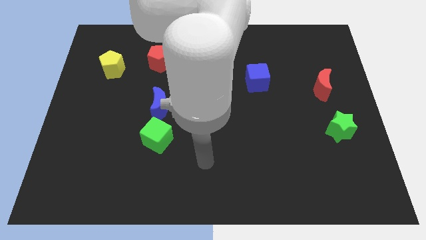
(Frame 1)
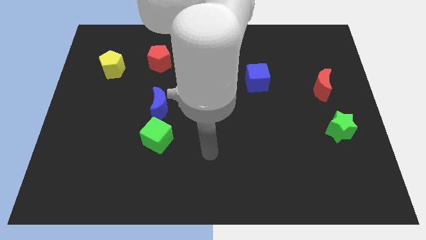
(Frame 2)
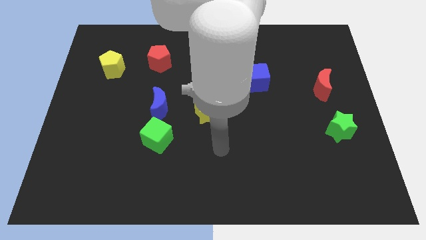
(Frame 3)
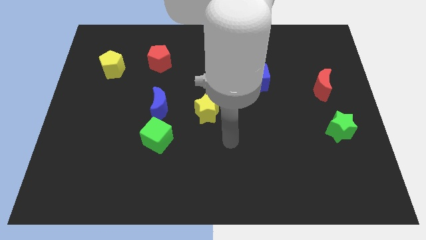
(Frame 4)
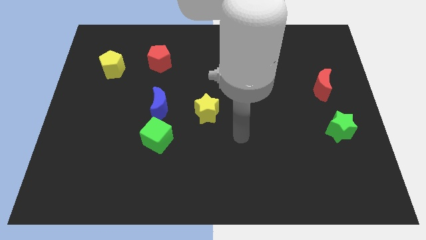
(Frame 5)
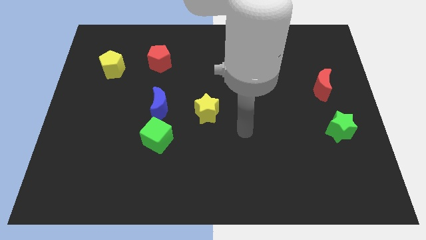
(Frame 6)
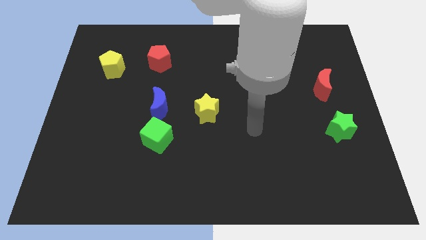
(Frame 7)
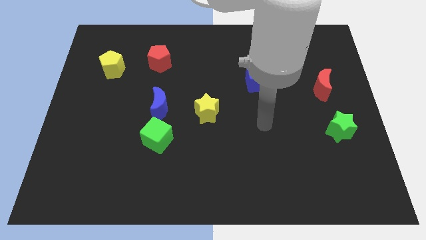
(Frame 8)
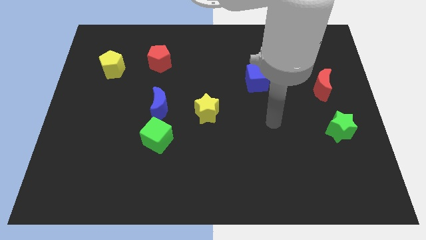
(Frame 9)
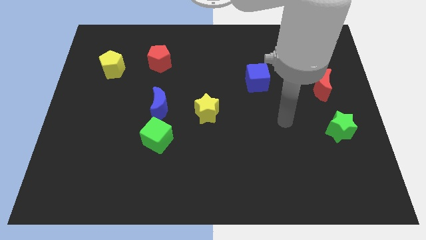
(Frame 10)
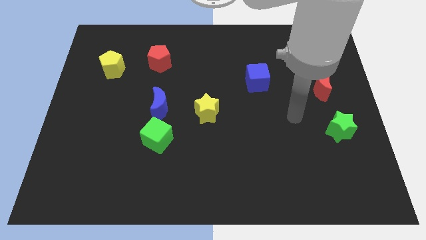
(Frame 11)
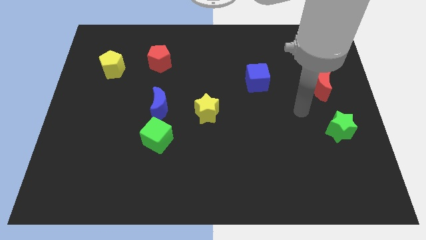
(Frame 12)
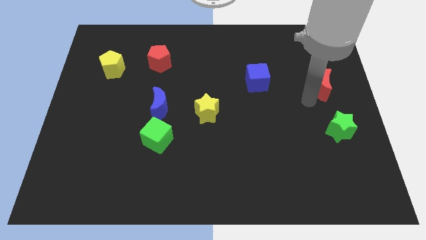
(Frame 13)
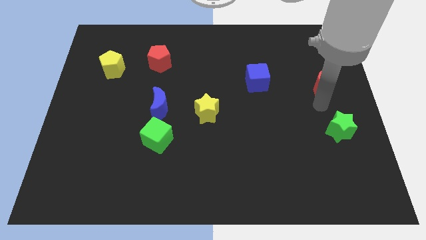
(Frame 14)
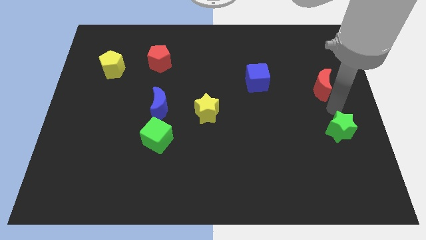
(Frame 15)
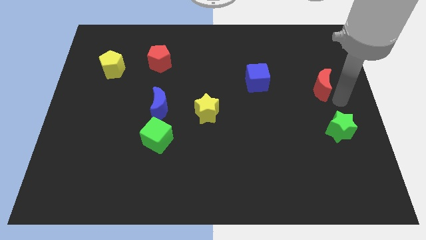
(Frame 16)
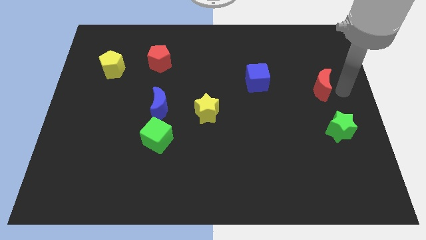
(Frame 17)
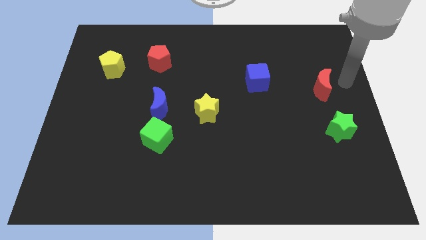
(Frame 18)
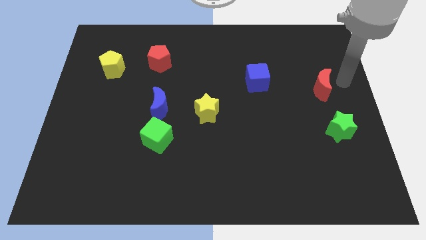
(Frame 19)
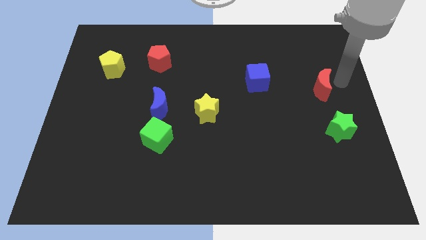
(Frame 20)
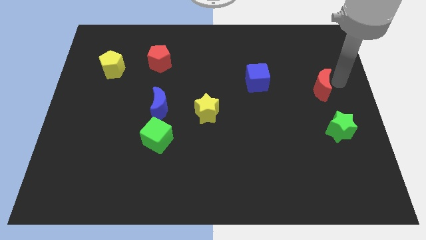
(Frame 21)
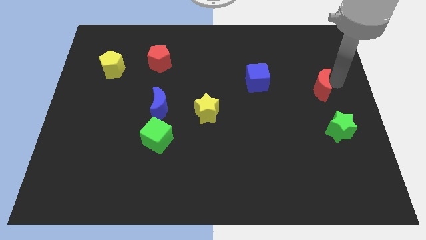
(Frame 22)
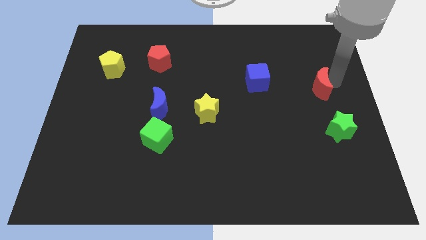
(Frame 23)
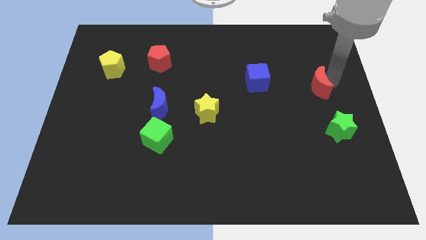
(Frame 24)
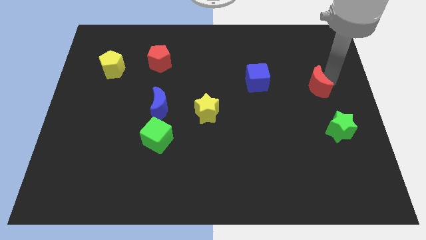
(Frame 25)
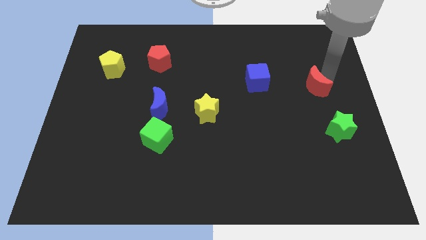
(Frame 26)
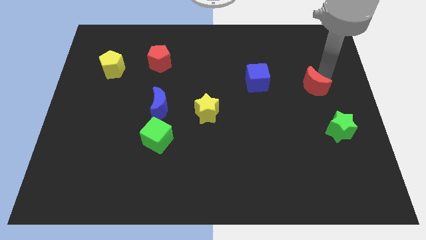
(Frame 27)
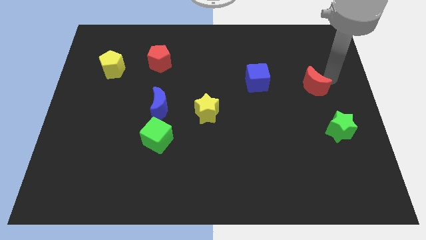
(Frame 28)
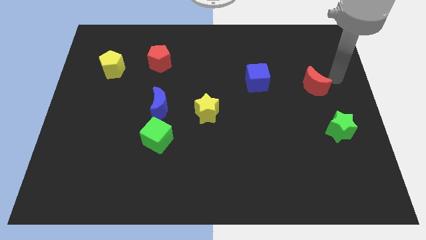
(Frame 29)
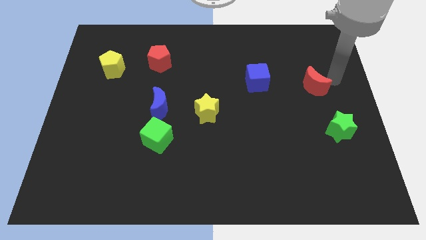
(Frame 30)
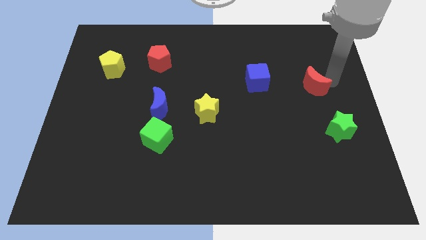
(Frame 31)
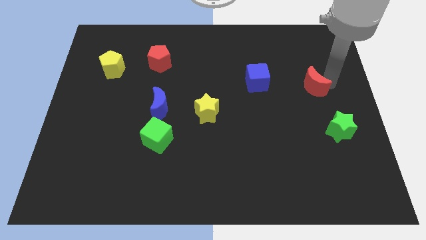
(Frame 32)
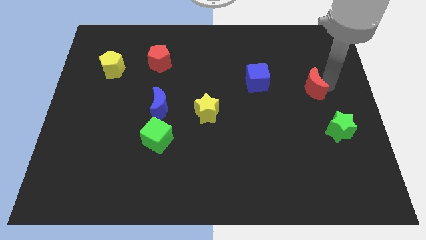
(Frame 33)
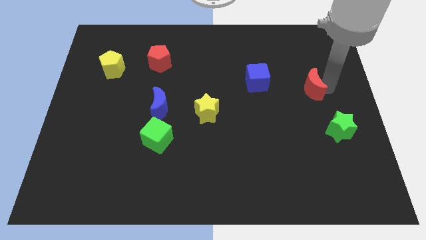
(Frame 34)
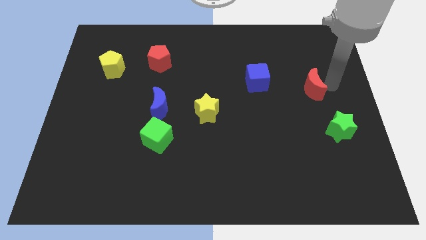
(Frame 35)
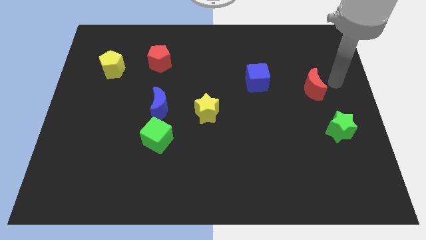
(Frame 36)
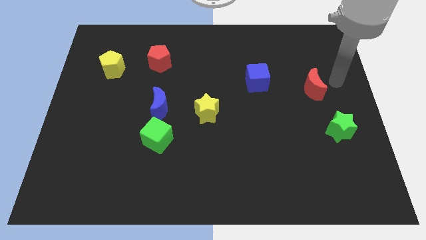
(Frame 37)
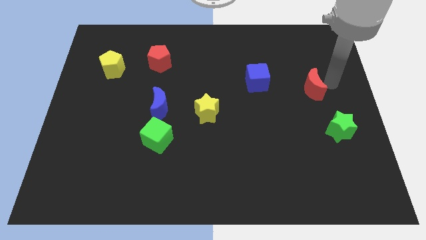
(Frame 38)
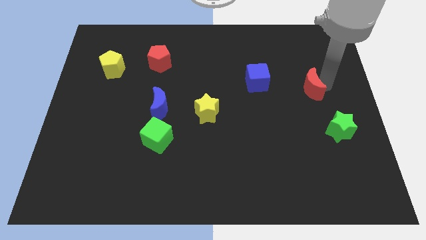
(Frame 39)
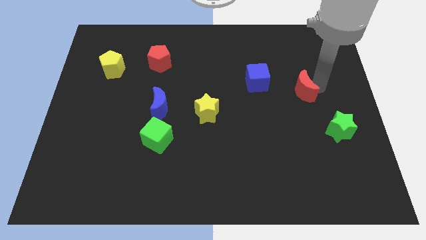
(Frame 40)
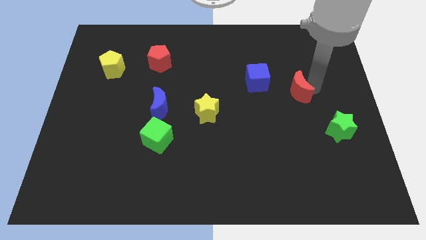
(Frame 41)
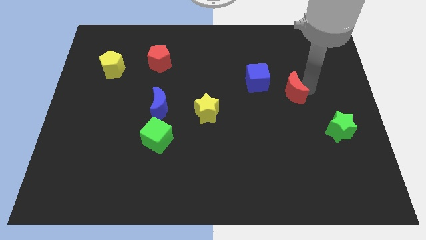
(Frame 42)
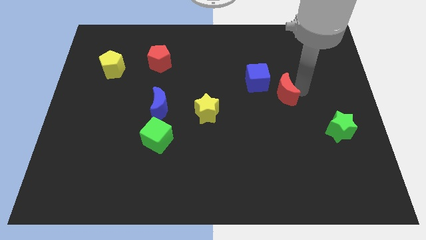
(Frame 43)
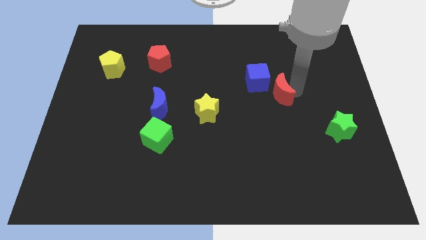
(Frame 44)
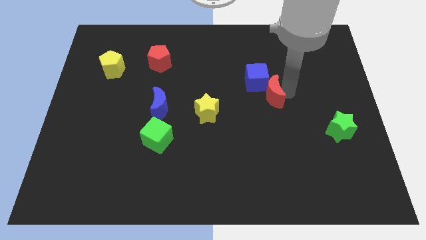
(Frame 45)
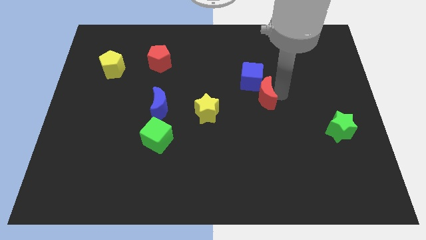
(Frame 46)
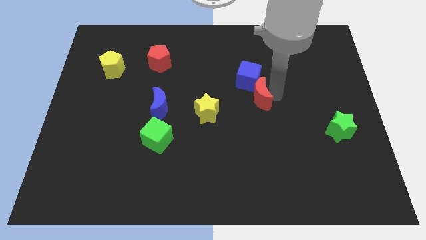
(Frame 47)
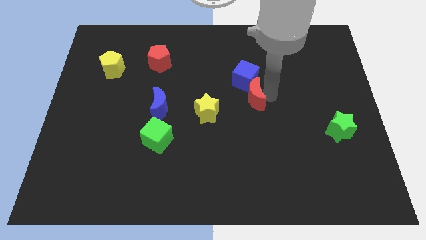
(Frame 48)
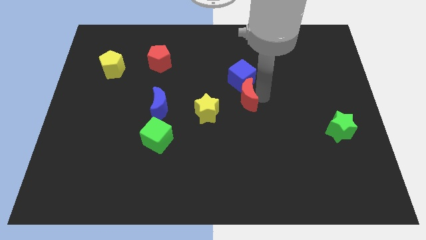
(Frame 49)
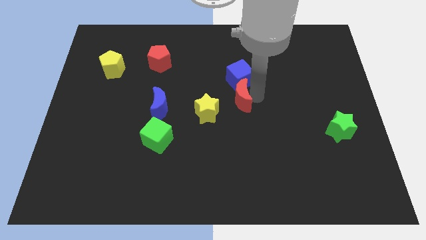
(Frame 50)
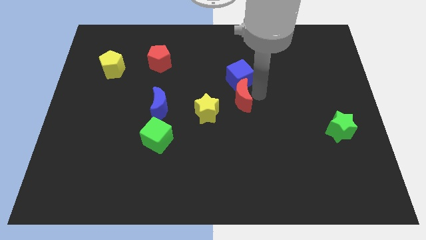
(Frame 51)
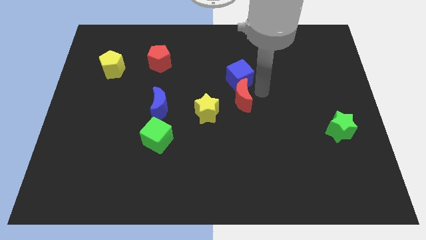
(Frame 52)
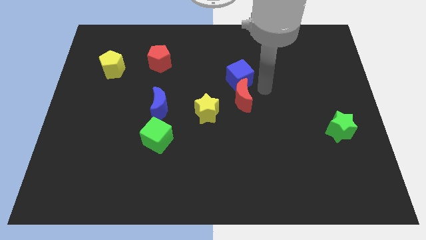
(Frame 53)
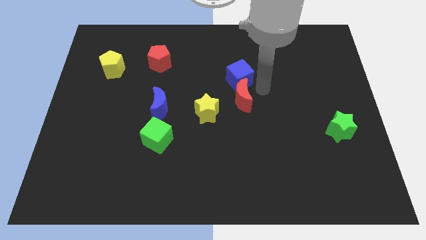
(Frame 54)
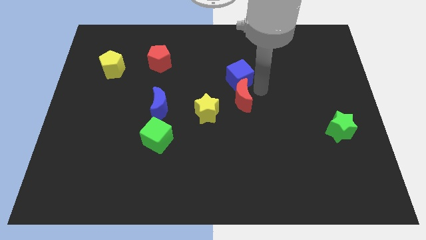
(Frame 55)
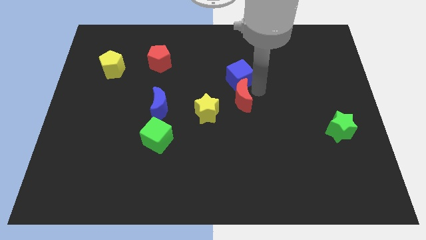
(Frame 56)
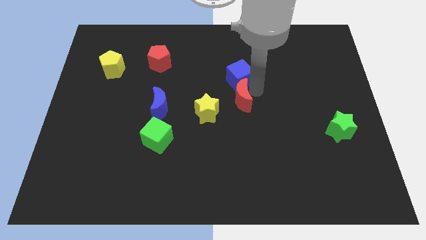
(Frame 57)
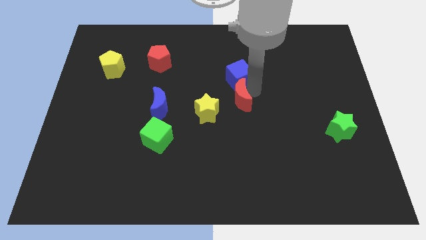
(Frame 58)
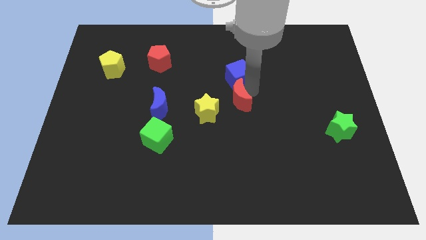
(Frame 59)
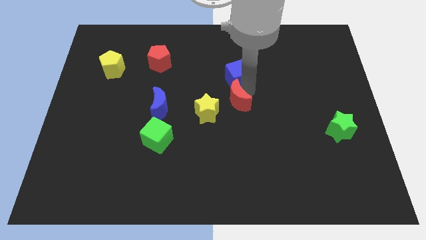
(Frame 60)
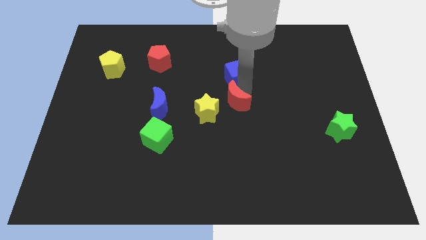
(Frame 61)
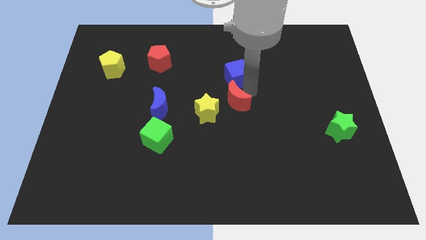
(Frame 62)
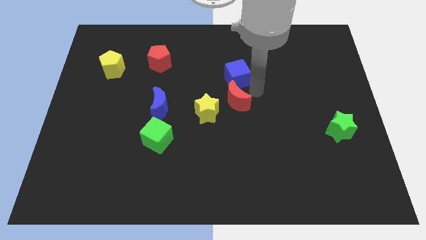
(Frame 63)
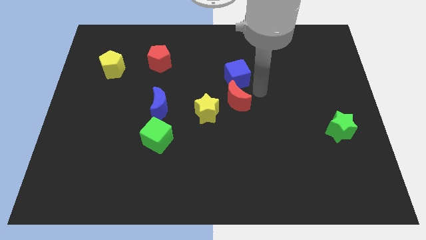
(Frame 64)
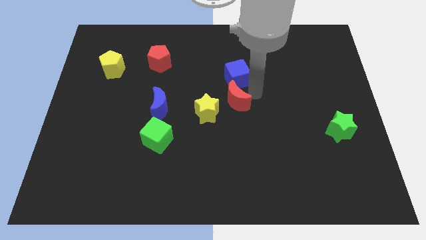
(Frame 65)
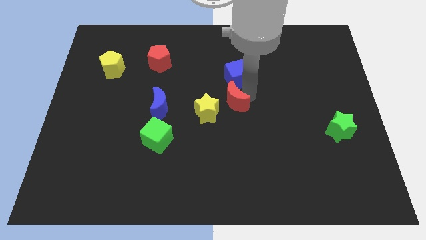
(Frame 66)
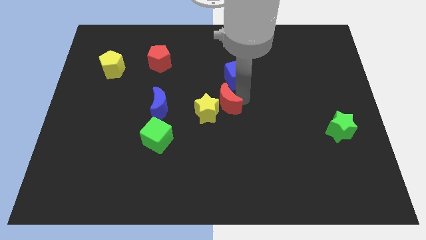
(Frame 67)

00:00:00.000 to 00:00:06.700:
push the red moon close to the yellow star

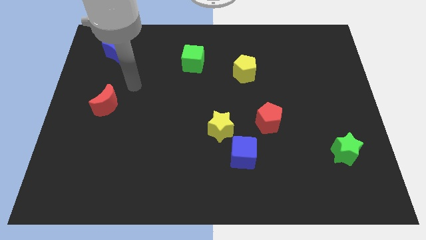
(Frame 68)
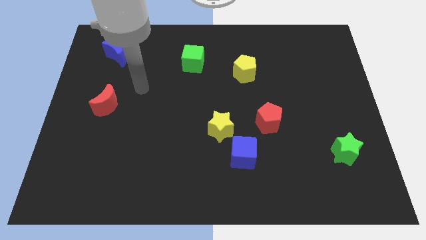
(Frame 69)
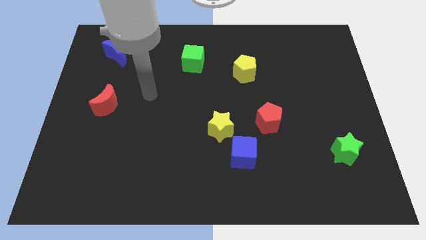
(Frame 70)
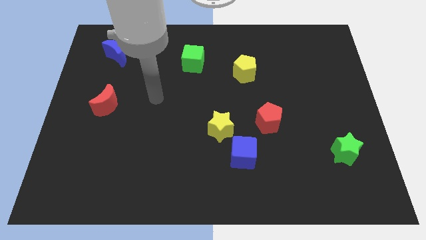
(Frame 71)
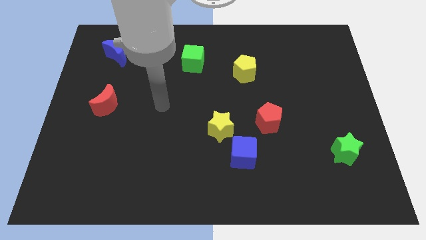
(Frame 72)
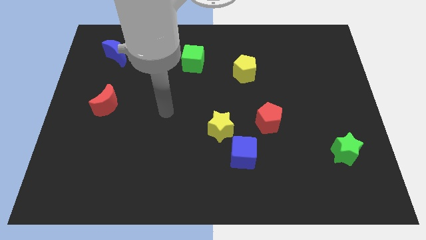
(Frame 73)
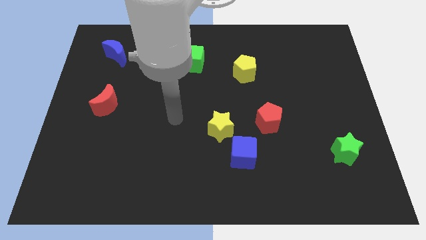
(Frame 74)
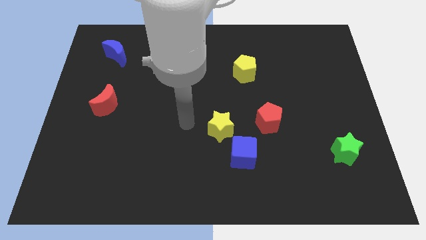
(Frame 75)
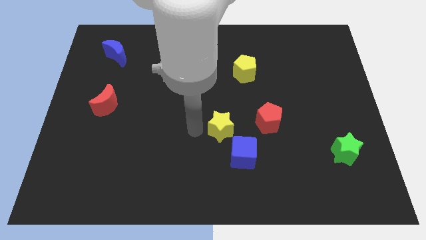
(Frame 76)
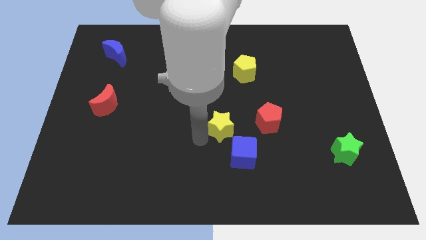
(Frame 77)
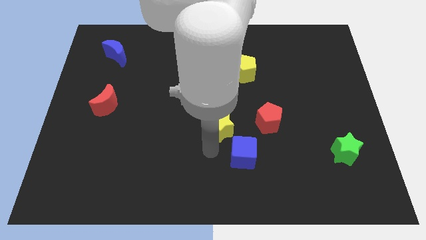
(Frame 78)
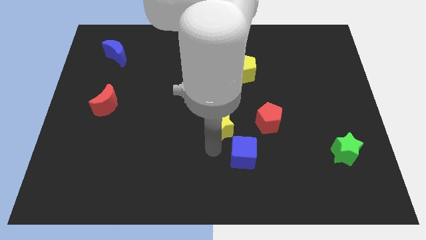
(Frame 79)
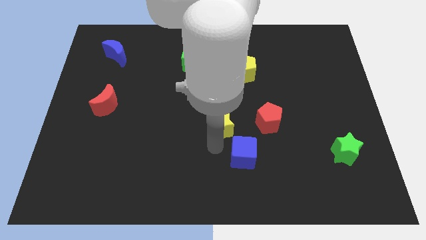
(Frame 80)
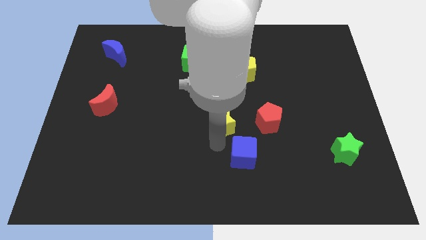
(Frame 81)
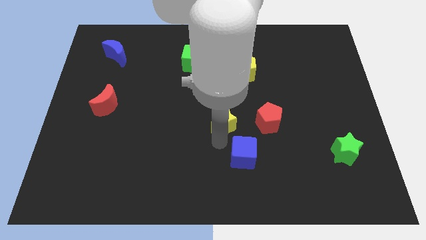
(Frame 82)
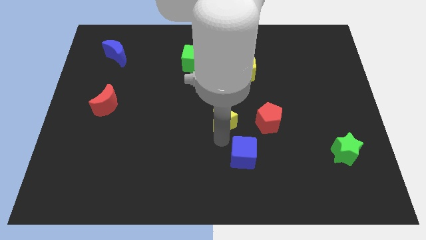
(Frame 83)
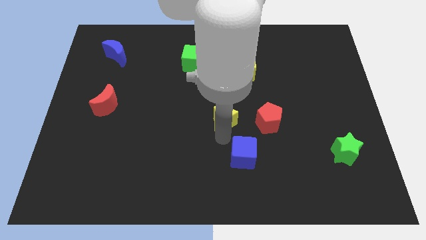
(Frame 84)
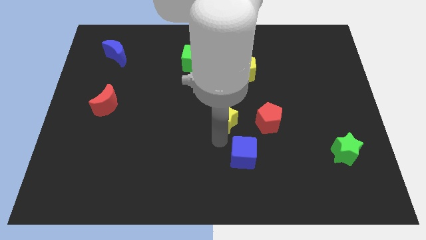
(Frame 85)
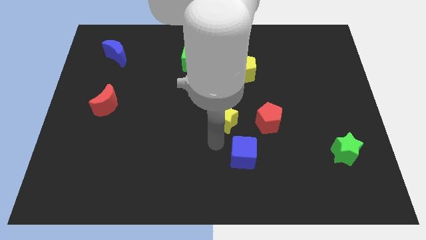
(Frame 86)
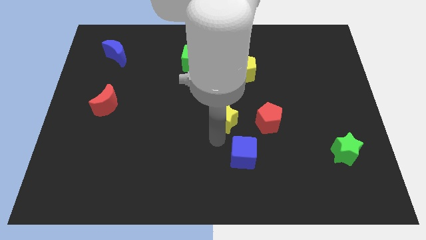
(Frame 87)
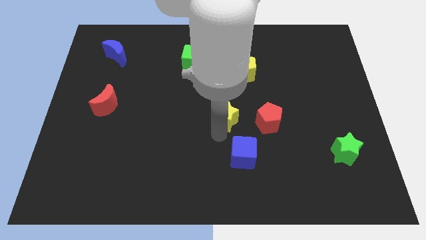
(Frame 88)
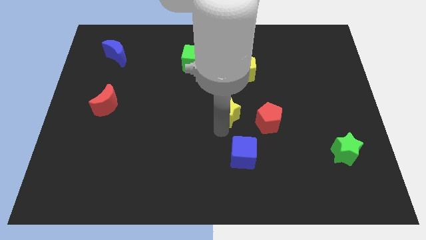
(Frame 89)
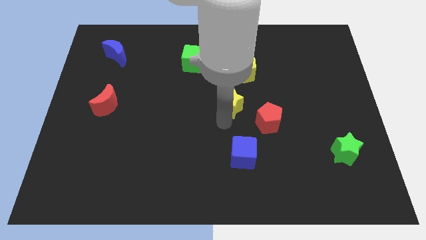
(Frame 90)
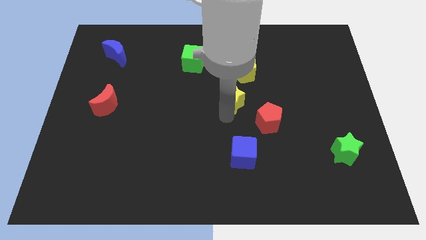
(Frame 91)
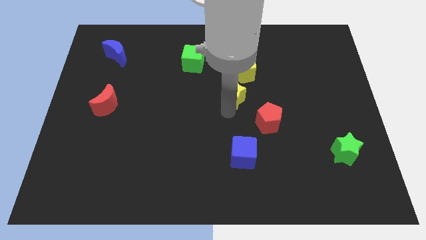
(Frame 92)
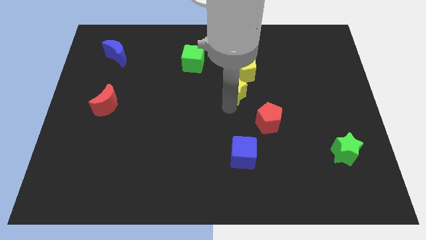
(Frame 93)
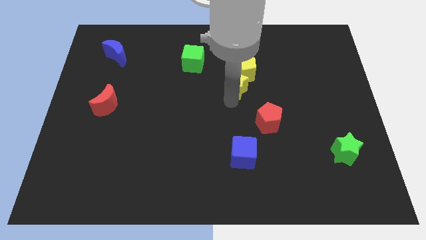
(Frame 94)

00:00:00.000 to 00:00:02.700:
move the yellow star close to the yellow pentagon
